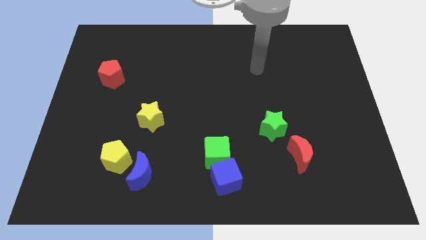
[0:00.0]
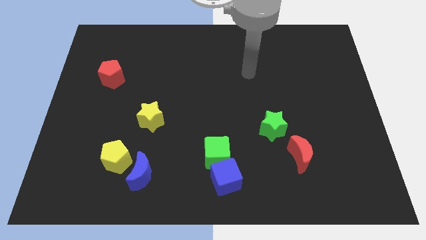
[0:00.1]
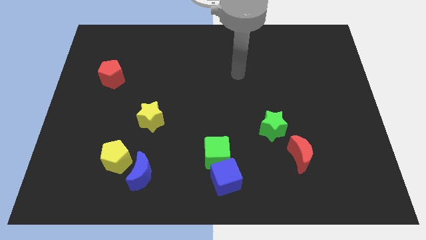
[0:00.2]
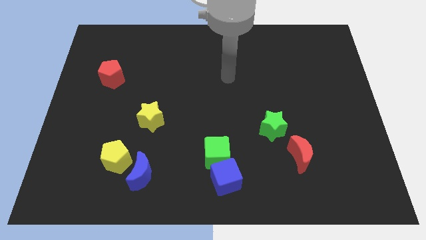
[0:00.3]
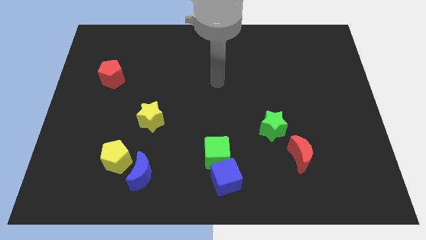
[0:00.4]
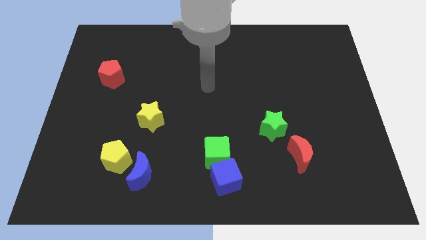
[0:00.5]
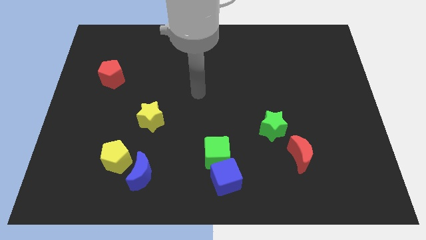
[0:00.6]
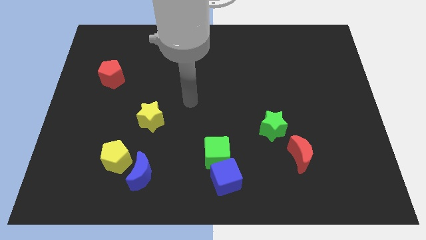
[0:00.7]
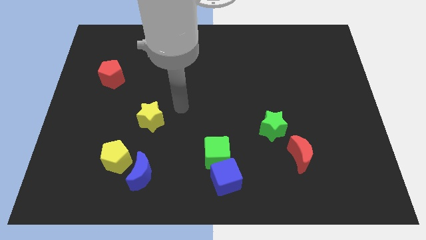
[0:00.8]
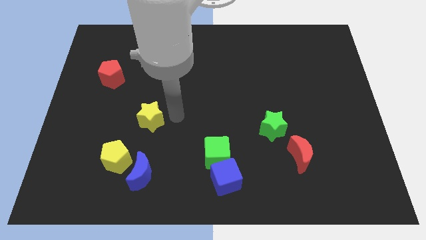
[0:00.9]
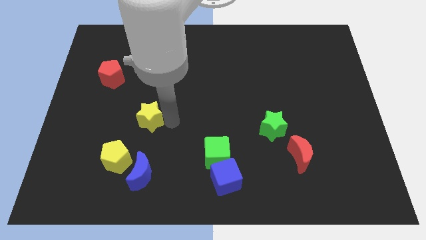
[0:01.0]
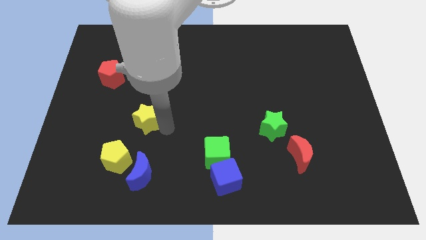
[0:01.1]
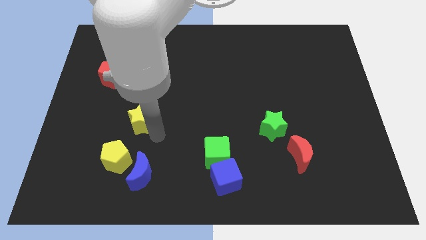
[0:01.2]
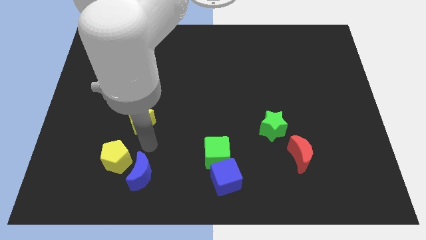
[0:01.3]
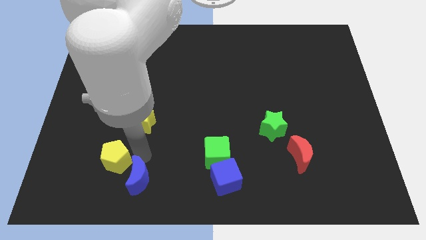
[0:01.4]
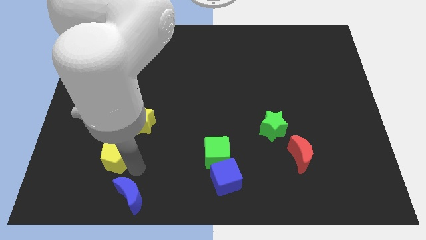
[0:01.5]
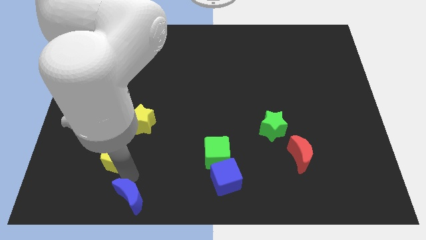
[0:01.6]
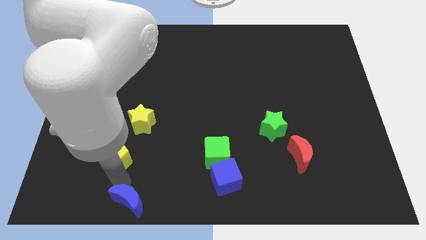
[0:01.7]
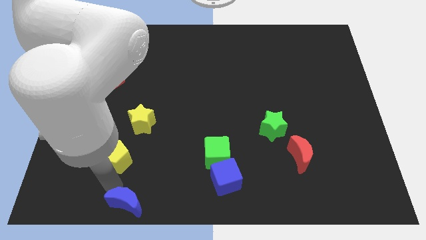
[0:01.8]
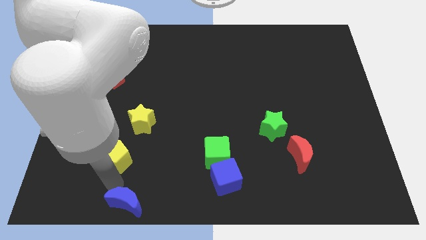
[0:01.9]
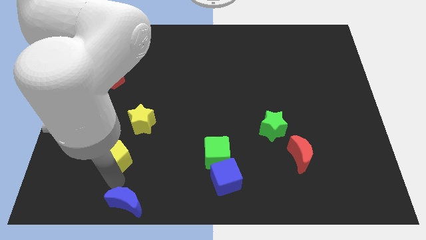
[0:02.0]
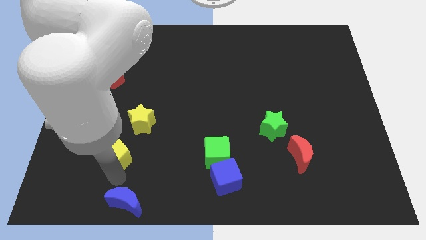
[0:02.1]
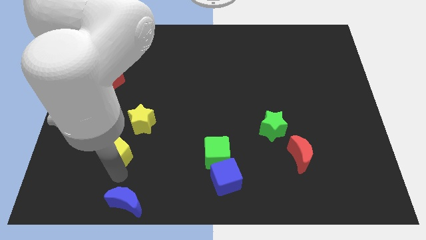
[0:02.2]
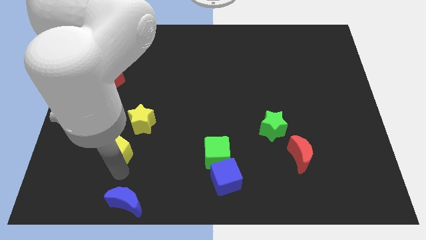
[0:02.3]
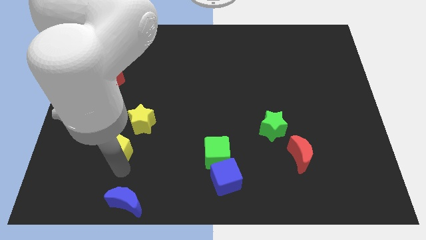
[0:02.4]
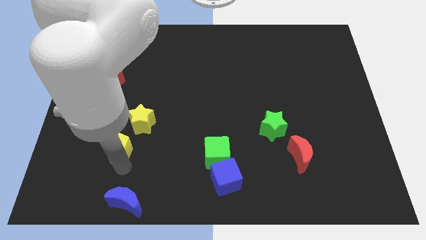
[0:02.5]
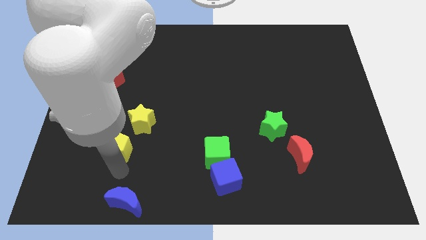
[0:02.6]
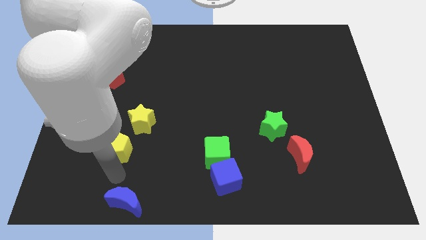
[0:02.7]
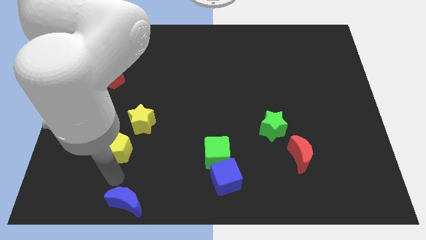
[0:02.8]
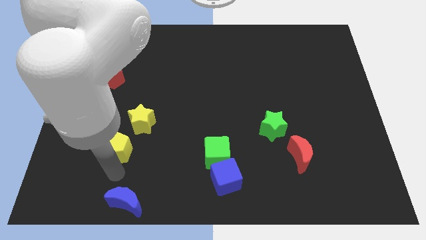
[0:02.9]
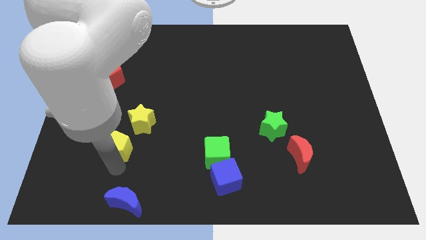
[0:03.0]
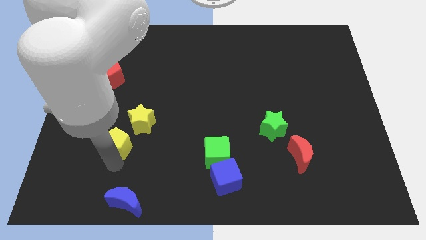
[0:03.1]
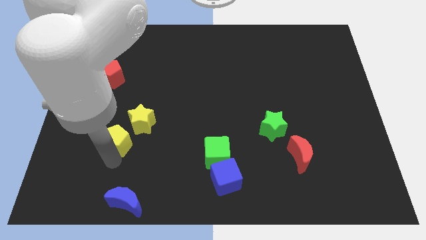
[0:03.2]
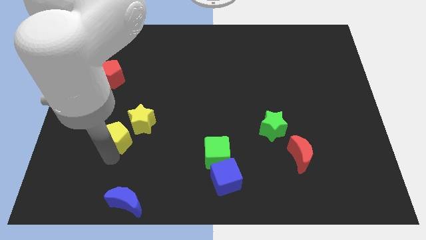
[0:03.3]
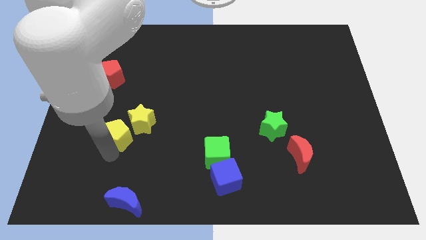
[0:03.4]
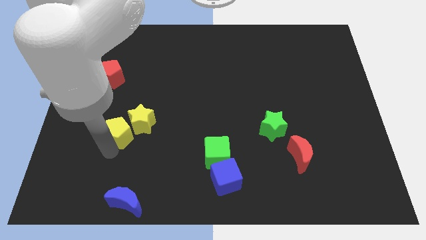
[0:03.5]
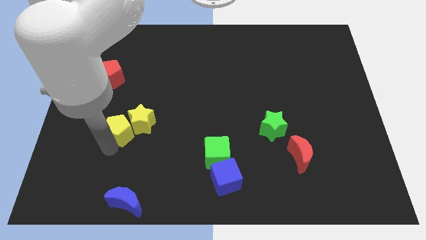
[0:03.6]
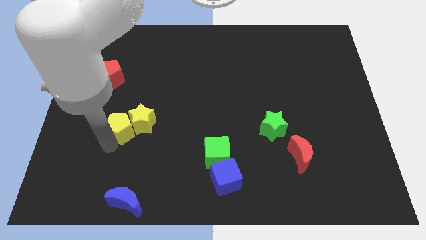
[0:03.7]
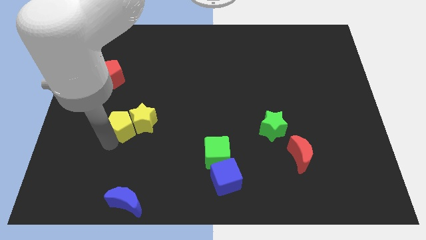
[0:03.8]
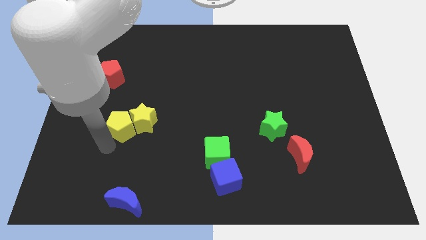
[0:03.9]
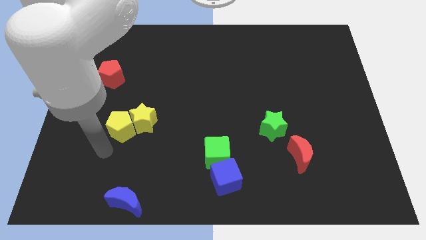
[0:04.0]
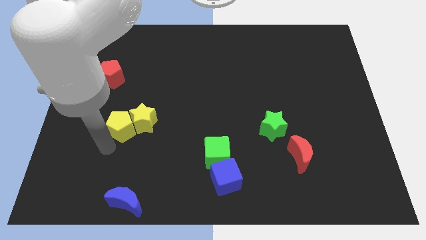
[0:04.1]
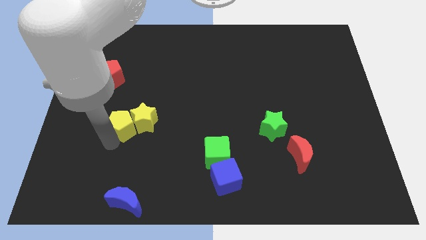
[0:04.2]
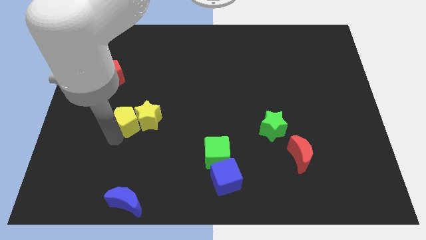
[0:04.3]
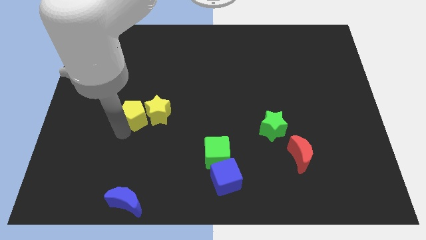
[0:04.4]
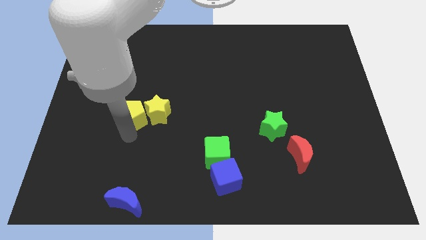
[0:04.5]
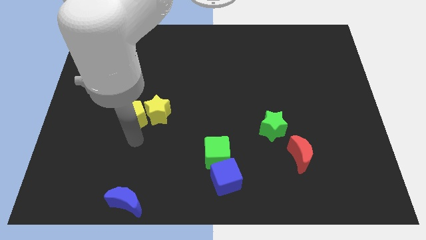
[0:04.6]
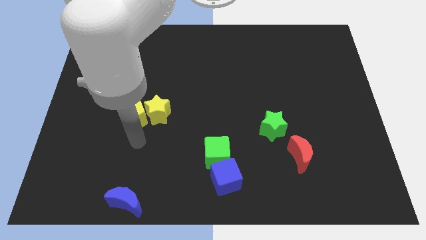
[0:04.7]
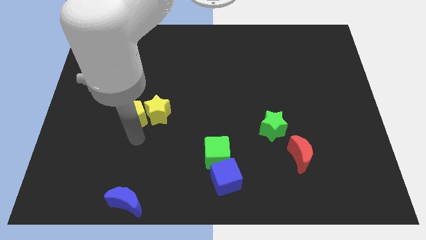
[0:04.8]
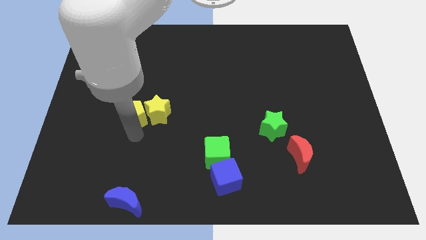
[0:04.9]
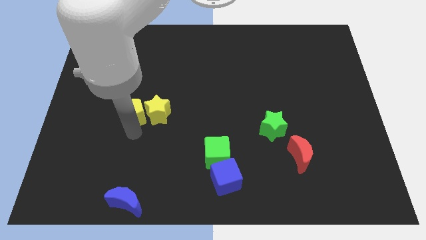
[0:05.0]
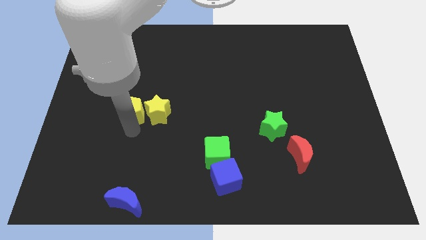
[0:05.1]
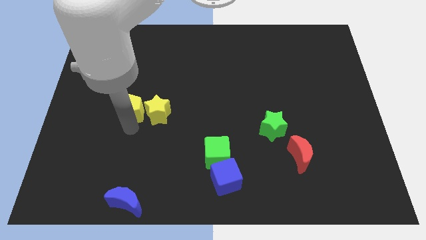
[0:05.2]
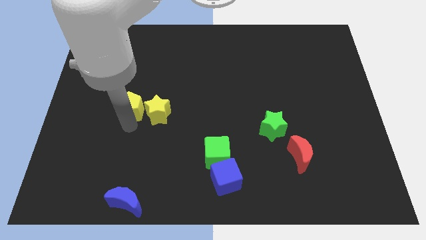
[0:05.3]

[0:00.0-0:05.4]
slide the yellow pentagon to the bottom right of the red pentagon

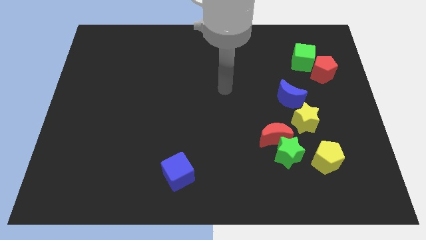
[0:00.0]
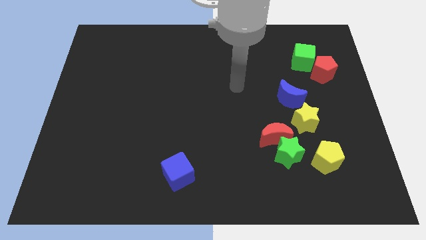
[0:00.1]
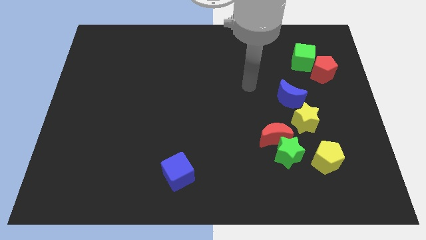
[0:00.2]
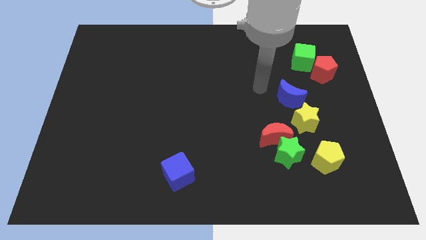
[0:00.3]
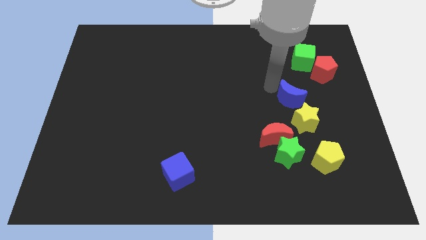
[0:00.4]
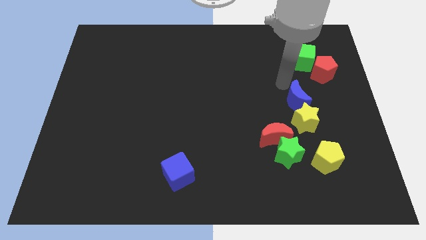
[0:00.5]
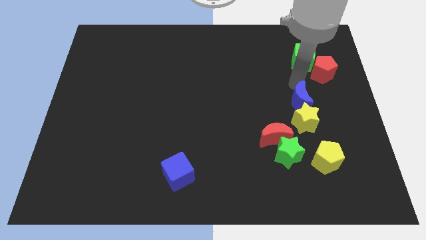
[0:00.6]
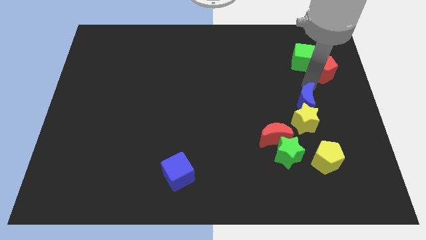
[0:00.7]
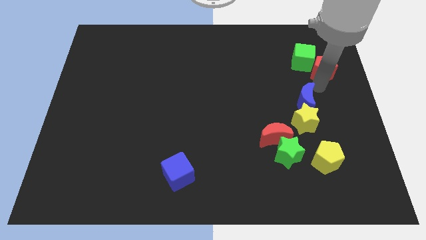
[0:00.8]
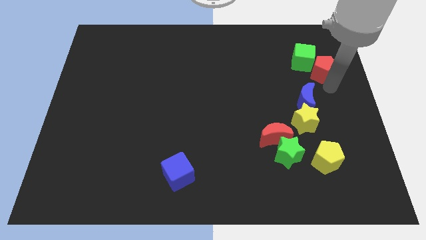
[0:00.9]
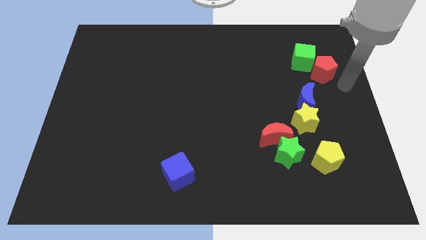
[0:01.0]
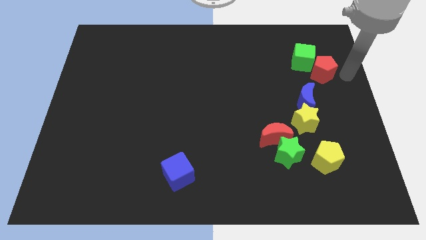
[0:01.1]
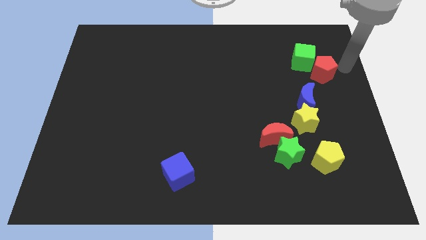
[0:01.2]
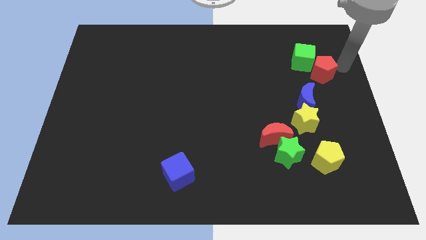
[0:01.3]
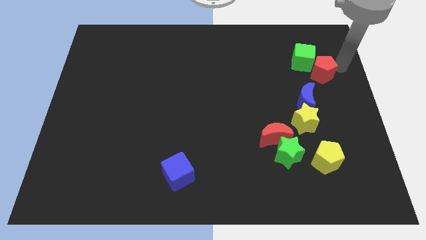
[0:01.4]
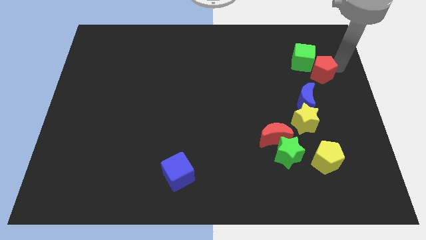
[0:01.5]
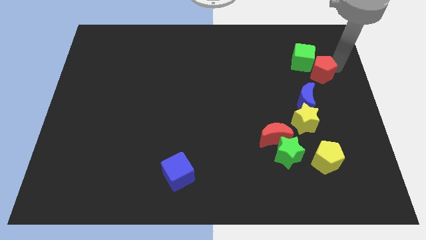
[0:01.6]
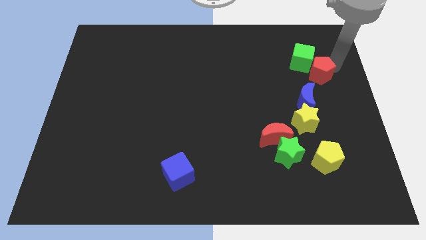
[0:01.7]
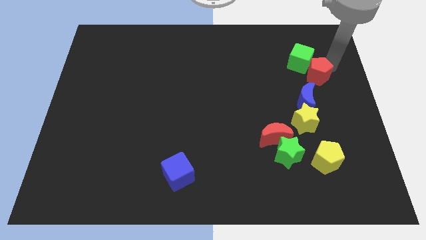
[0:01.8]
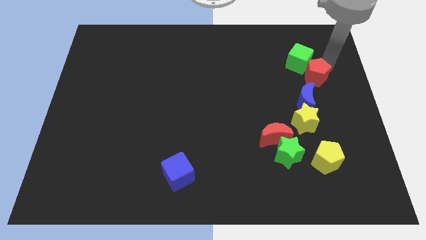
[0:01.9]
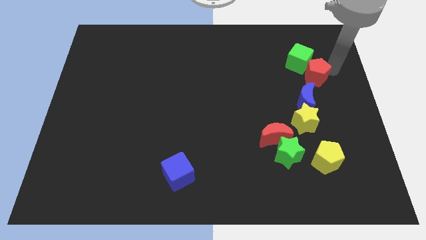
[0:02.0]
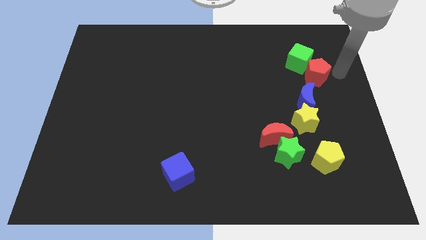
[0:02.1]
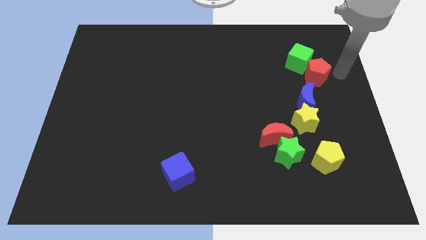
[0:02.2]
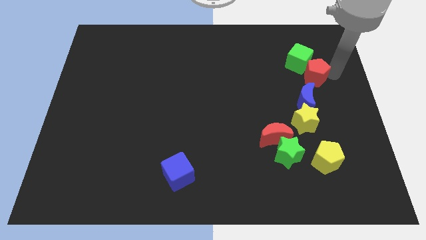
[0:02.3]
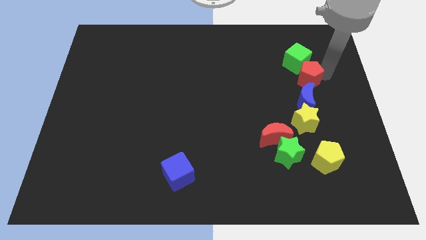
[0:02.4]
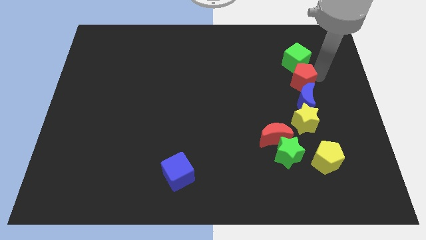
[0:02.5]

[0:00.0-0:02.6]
move the red pentagon to the bottom left of the green cube
